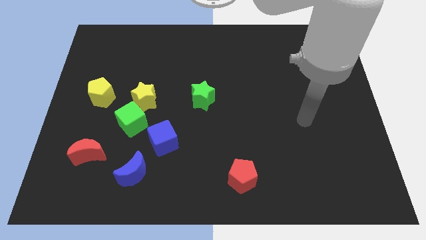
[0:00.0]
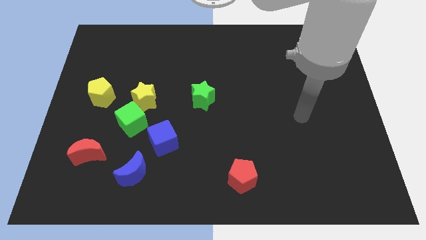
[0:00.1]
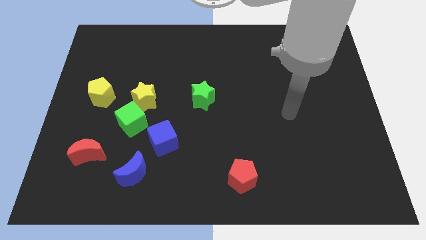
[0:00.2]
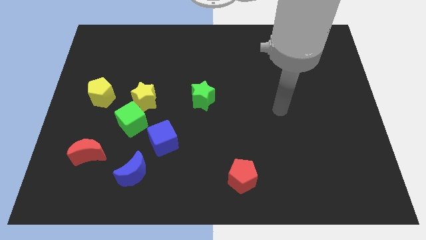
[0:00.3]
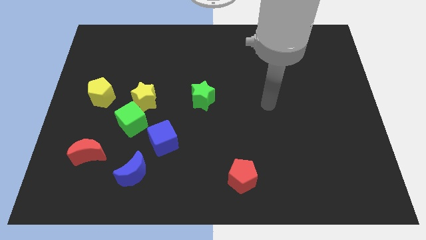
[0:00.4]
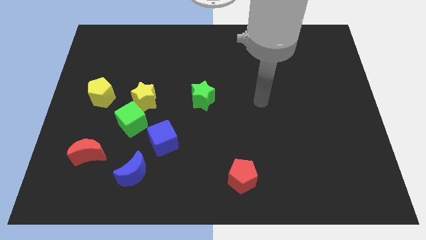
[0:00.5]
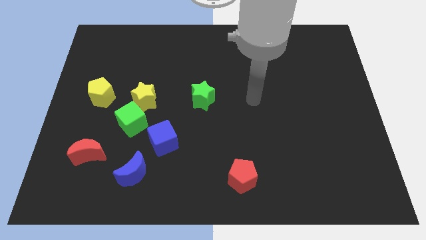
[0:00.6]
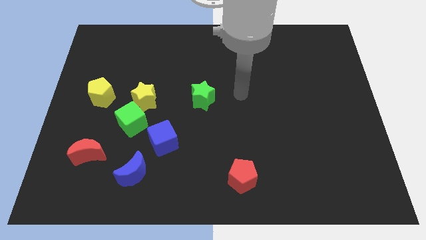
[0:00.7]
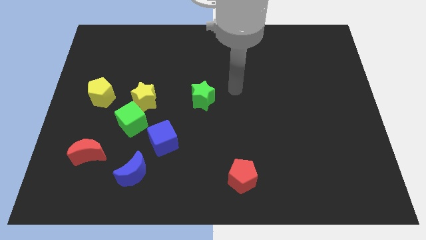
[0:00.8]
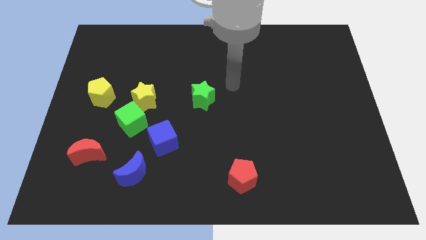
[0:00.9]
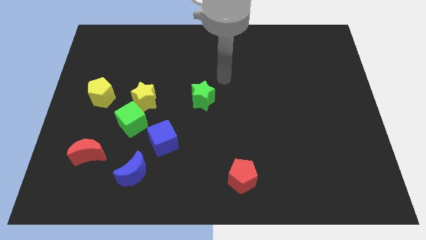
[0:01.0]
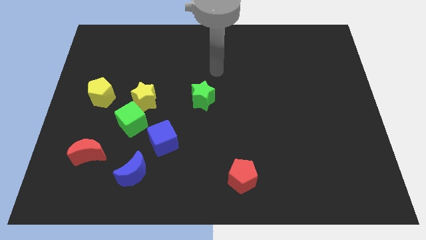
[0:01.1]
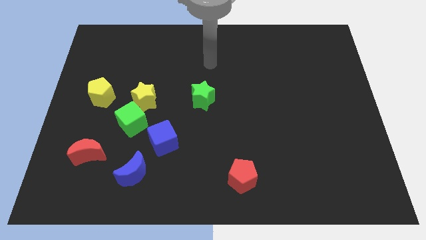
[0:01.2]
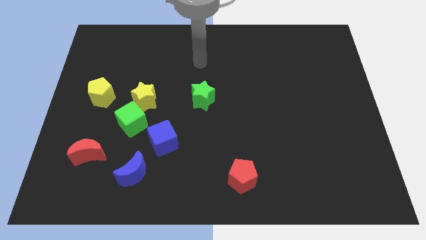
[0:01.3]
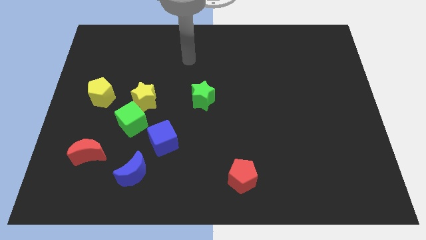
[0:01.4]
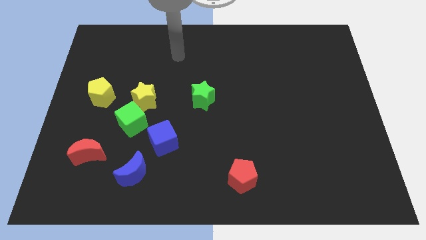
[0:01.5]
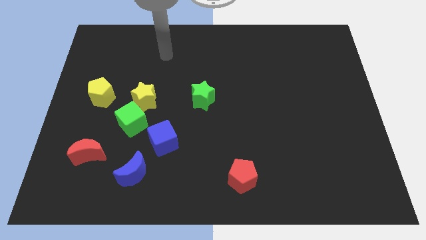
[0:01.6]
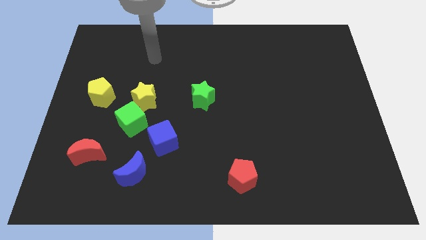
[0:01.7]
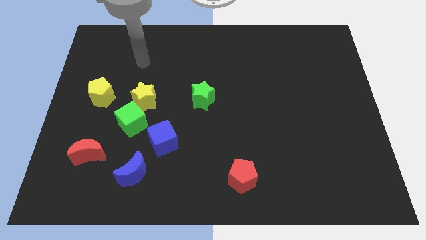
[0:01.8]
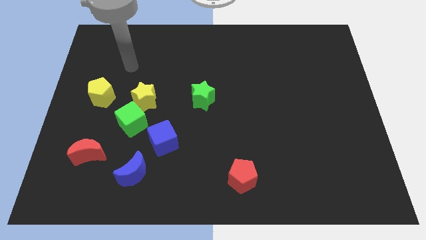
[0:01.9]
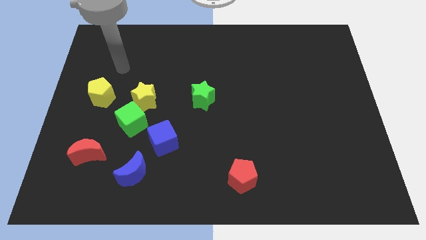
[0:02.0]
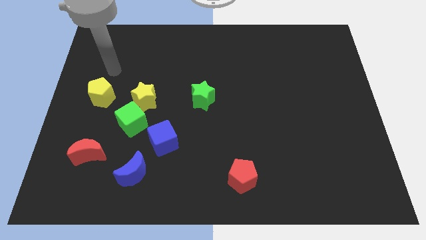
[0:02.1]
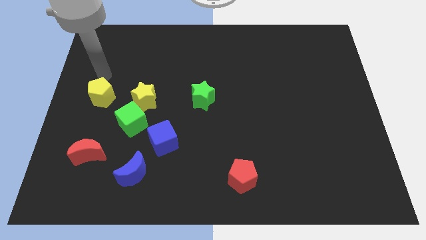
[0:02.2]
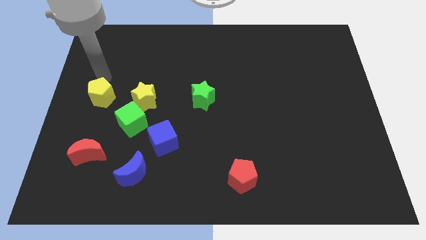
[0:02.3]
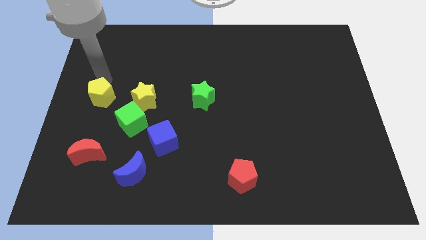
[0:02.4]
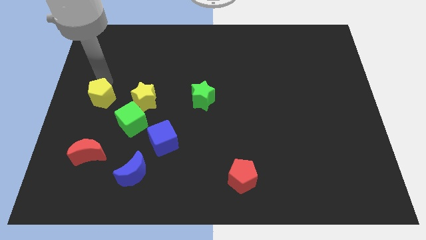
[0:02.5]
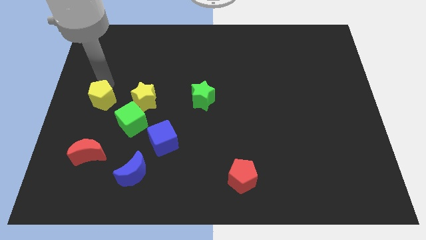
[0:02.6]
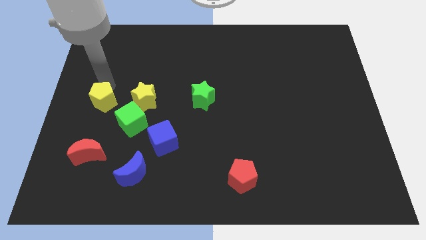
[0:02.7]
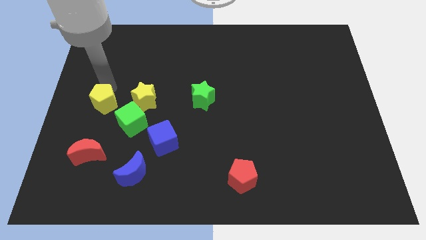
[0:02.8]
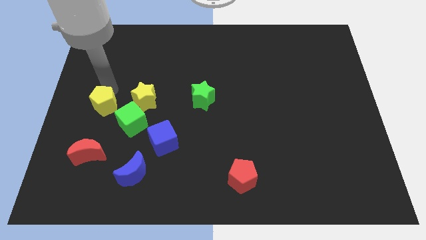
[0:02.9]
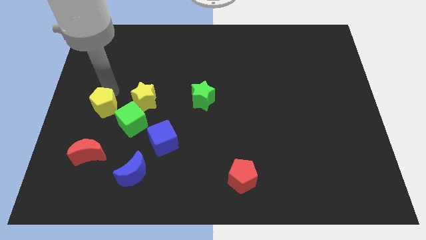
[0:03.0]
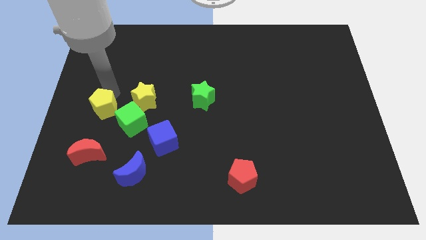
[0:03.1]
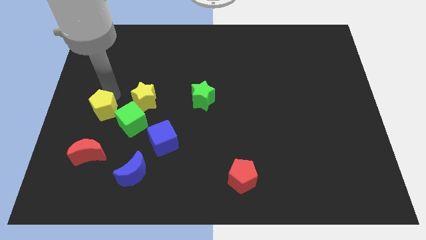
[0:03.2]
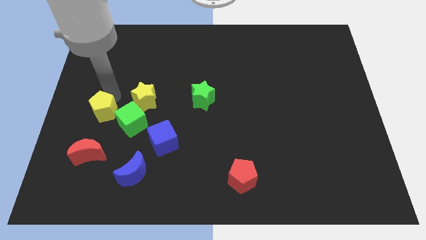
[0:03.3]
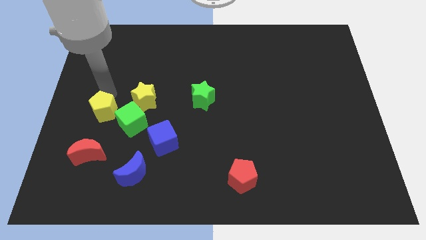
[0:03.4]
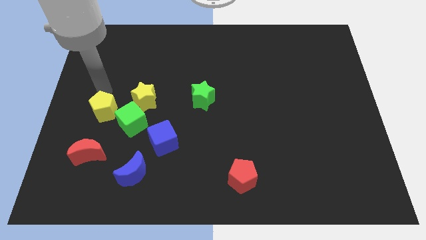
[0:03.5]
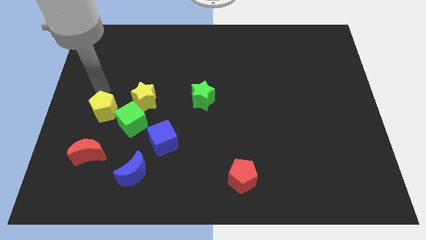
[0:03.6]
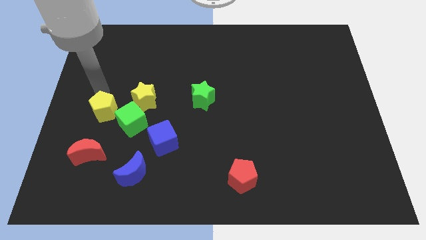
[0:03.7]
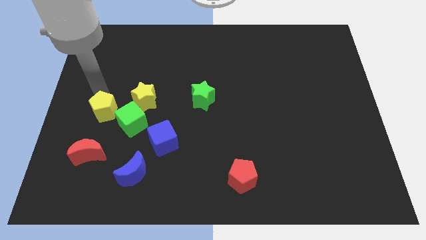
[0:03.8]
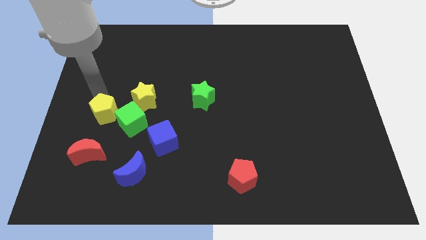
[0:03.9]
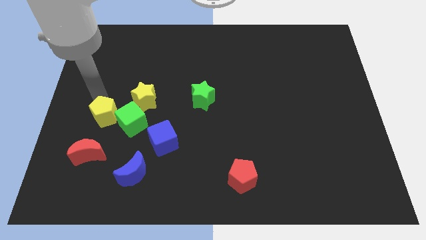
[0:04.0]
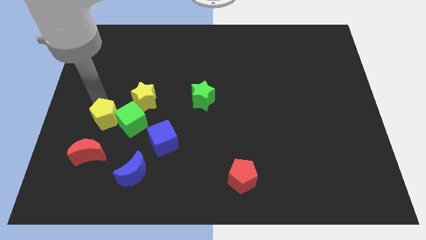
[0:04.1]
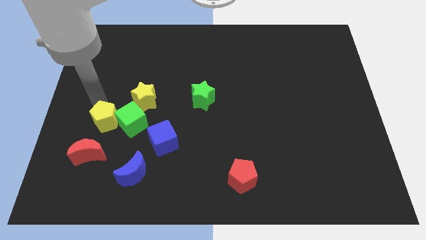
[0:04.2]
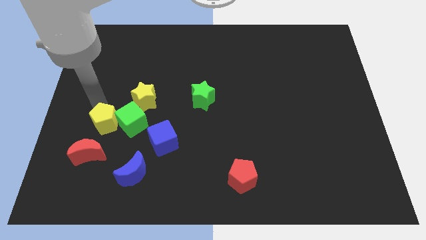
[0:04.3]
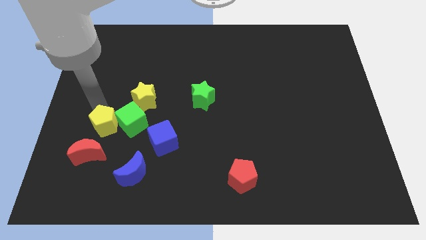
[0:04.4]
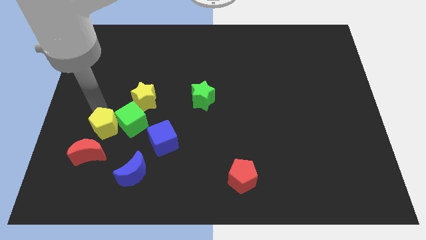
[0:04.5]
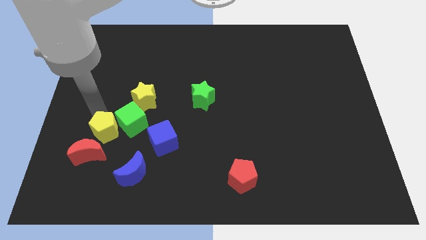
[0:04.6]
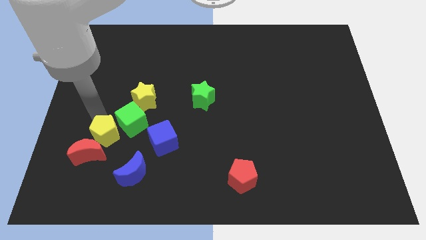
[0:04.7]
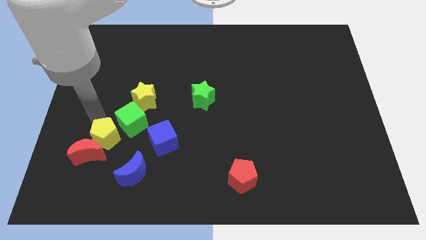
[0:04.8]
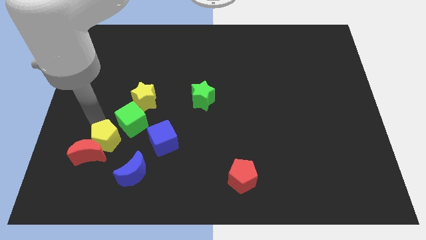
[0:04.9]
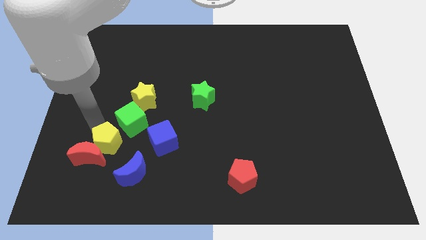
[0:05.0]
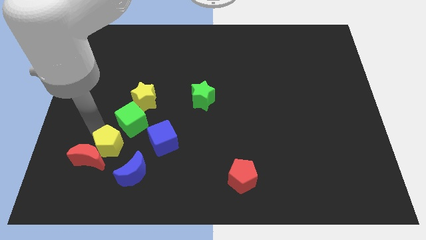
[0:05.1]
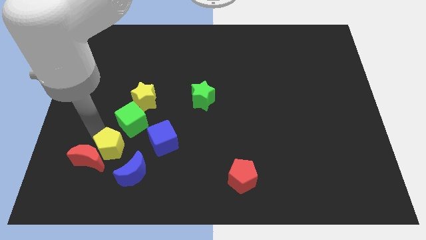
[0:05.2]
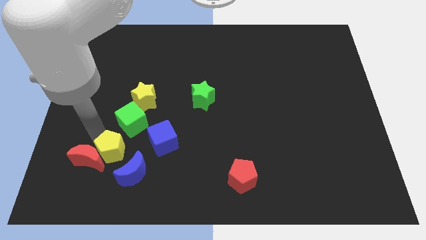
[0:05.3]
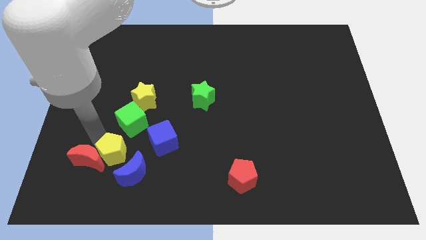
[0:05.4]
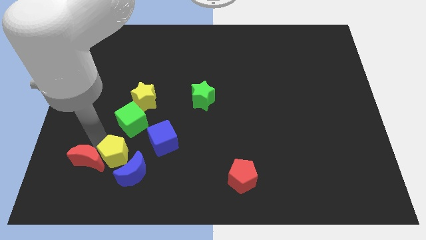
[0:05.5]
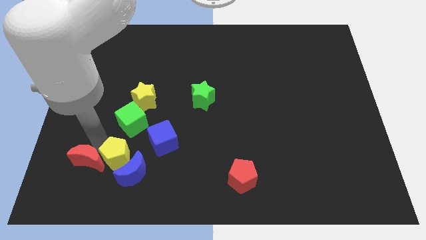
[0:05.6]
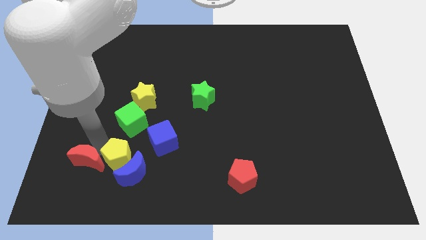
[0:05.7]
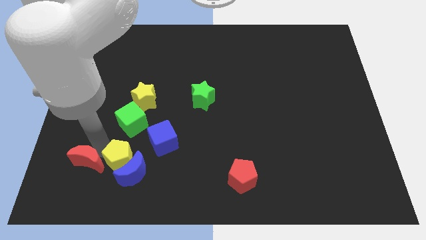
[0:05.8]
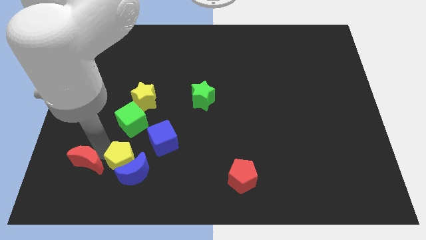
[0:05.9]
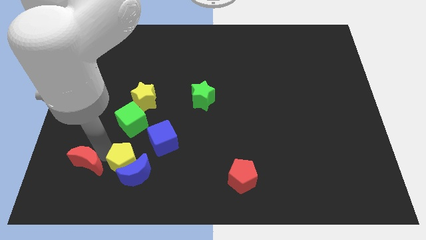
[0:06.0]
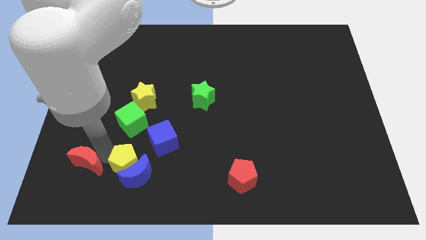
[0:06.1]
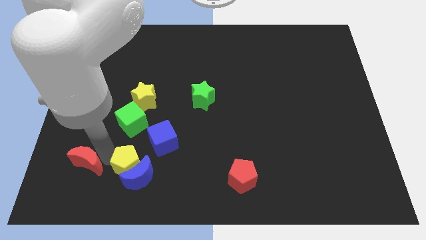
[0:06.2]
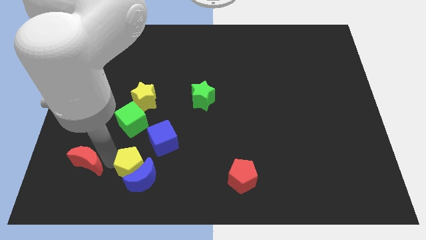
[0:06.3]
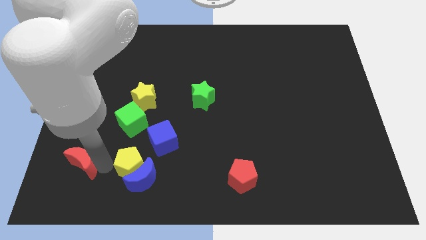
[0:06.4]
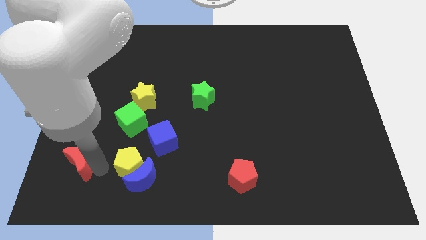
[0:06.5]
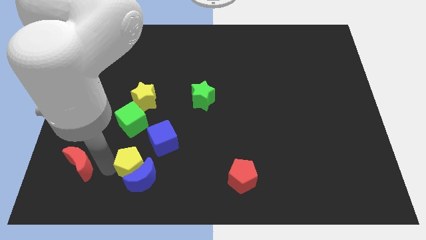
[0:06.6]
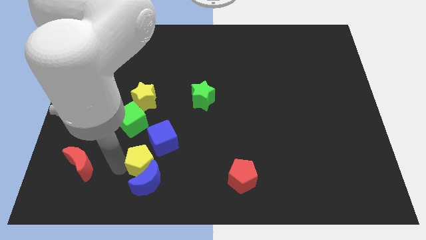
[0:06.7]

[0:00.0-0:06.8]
slide the yellow pentagon down and to the right diagonally

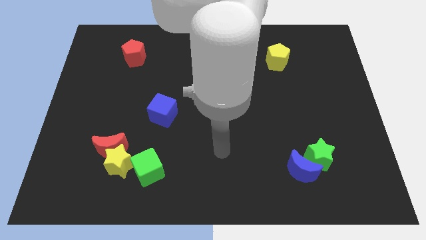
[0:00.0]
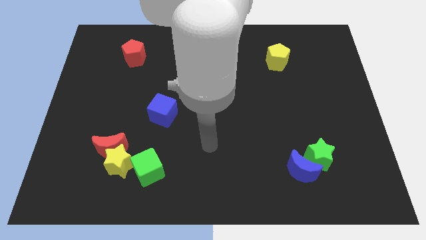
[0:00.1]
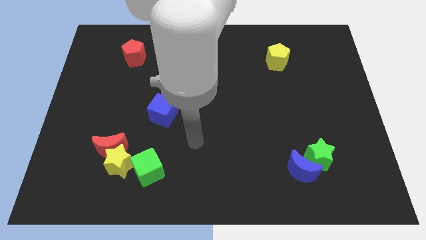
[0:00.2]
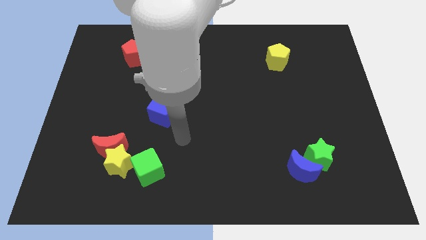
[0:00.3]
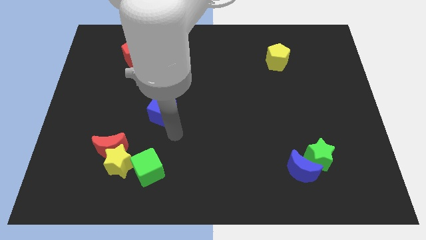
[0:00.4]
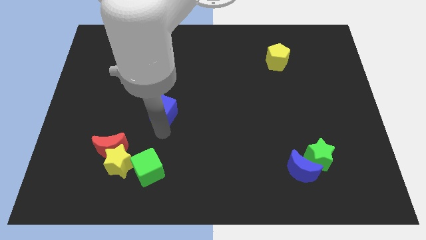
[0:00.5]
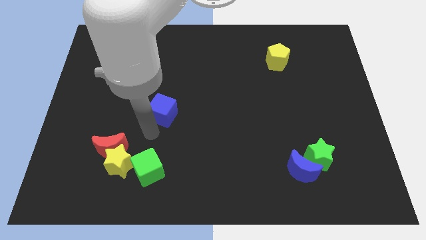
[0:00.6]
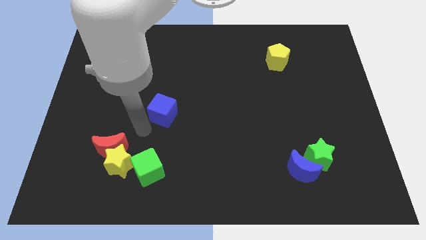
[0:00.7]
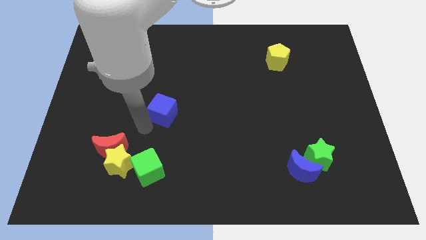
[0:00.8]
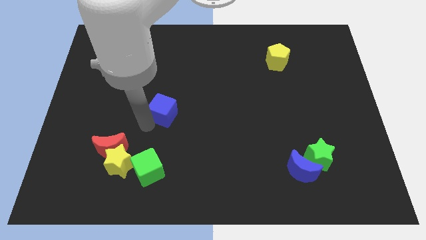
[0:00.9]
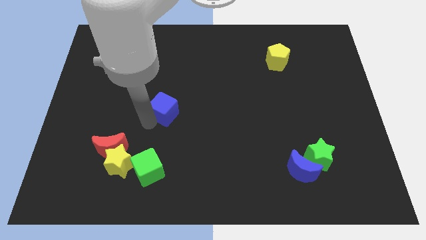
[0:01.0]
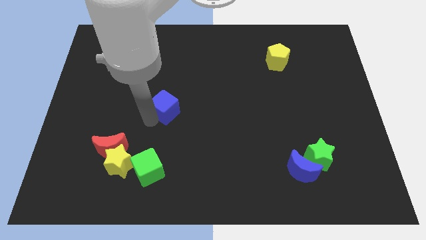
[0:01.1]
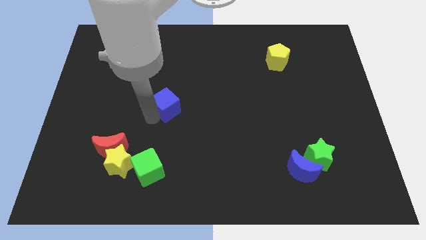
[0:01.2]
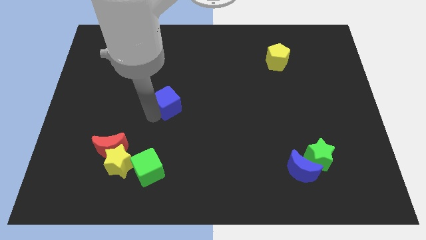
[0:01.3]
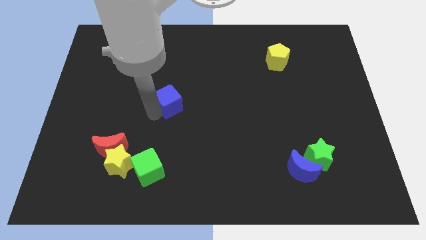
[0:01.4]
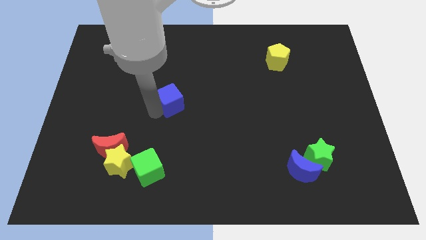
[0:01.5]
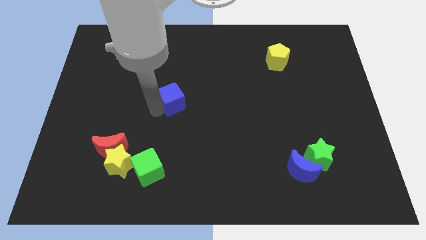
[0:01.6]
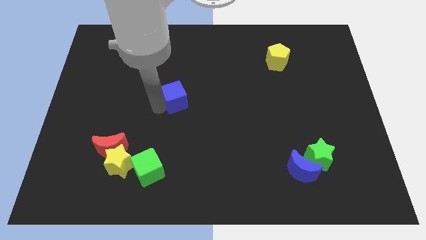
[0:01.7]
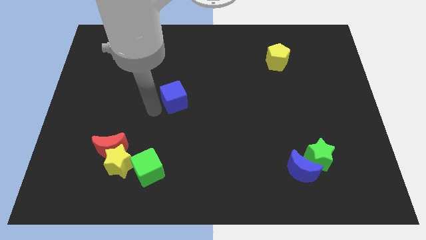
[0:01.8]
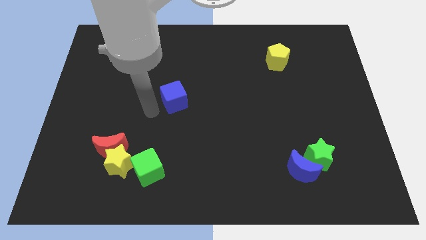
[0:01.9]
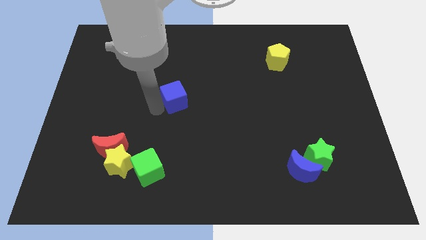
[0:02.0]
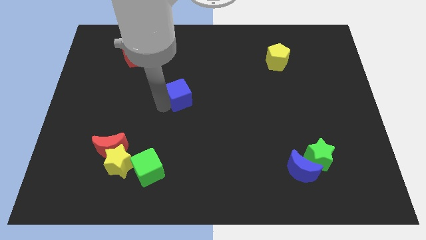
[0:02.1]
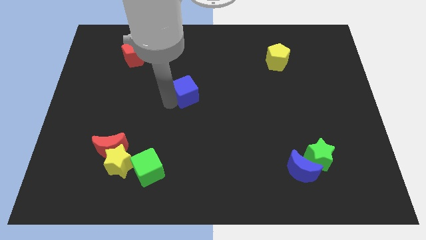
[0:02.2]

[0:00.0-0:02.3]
slightly move the blue cube diagonally upwards and right
